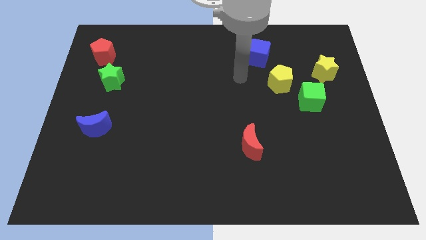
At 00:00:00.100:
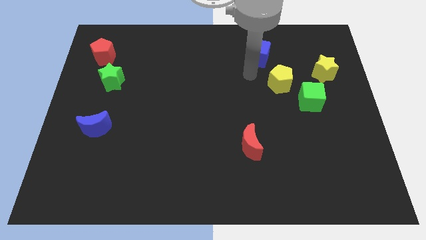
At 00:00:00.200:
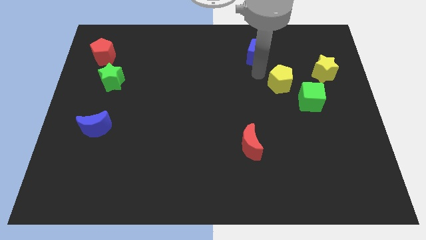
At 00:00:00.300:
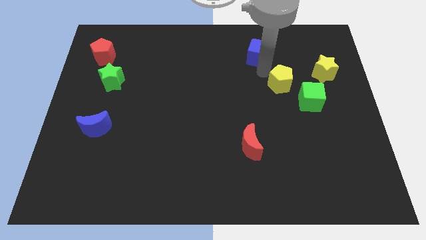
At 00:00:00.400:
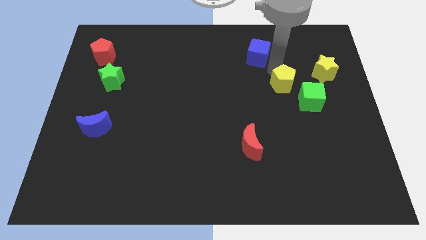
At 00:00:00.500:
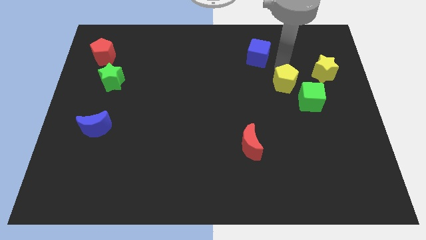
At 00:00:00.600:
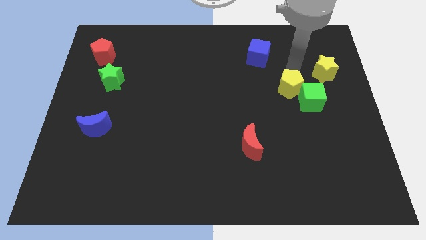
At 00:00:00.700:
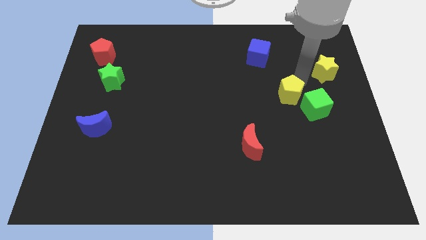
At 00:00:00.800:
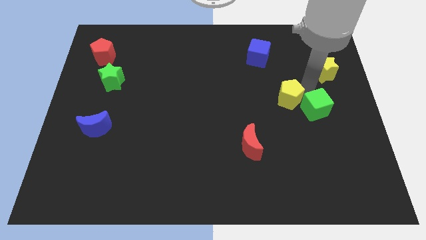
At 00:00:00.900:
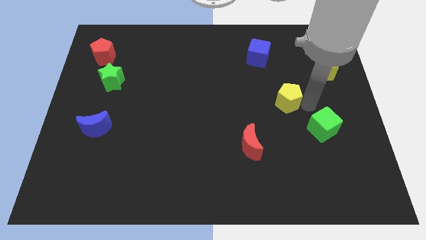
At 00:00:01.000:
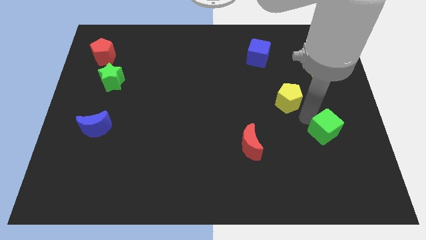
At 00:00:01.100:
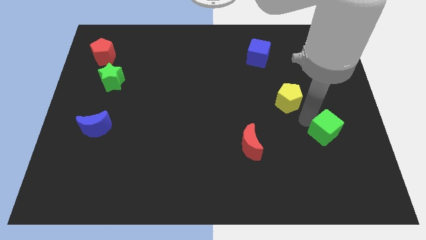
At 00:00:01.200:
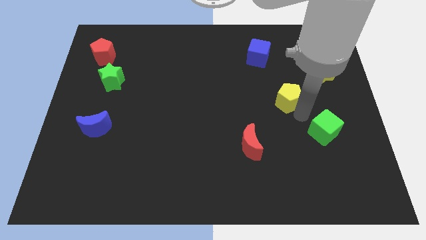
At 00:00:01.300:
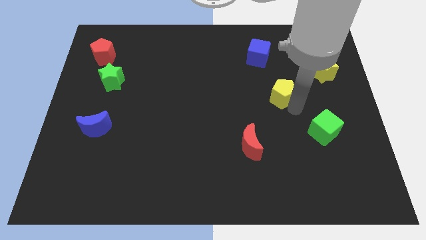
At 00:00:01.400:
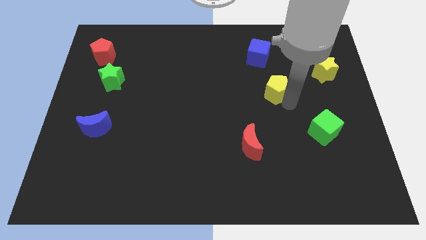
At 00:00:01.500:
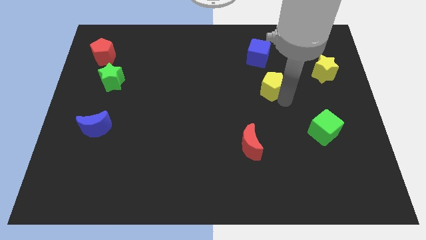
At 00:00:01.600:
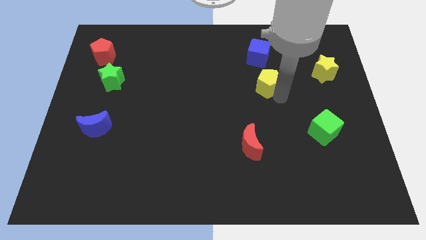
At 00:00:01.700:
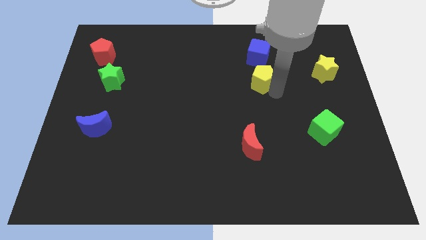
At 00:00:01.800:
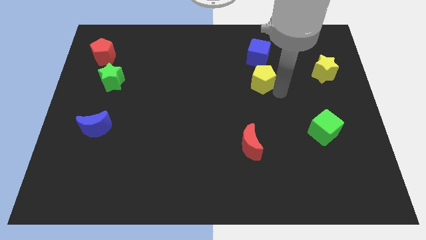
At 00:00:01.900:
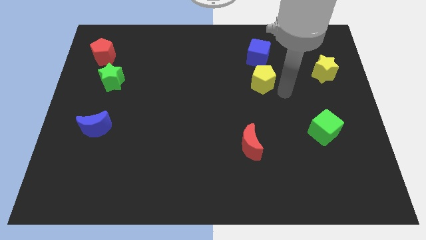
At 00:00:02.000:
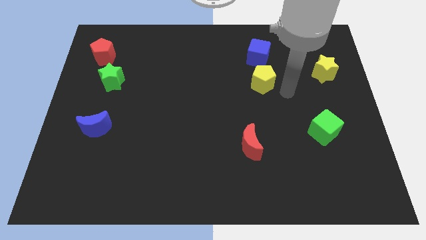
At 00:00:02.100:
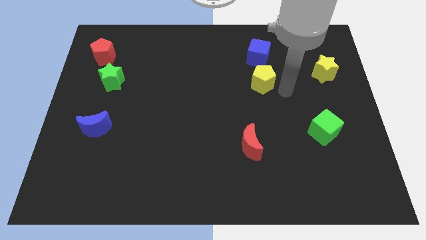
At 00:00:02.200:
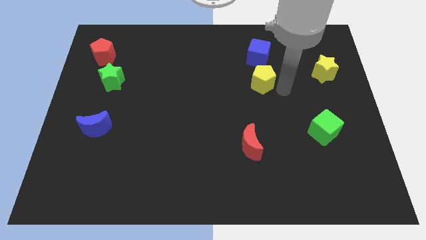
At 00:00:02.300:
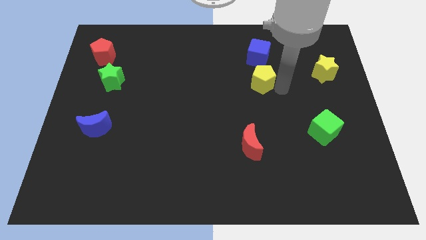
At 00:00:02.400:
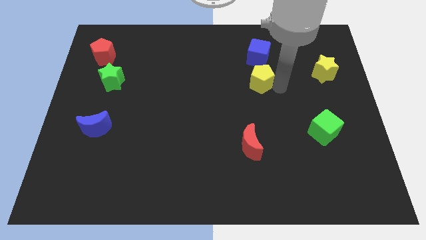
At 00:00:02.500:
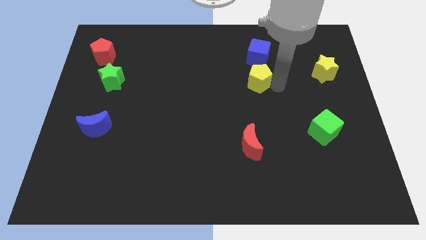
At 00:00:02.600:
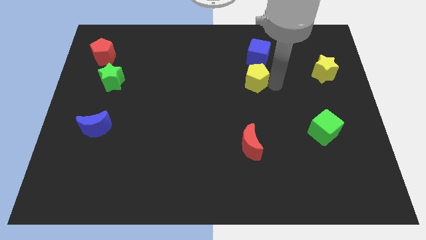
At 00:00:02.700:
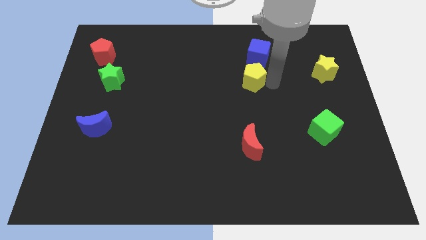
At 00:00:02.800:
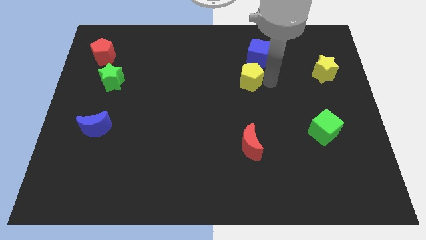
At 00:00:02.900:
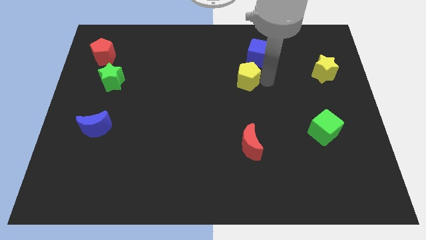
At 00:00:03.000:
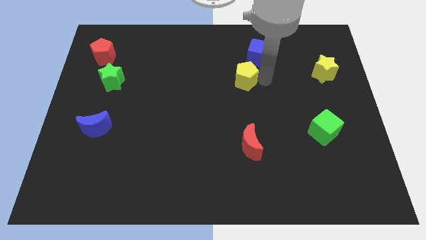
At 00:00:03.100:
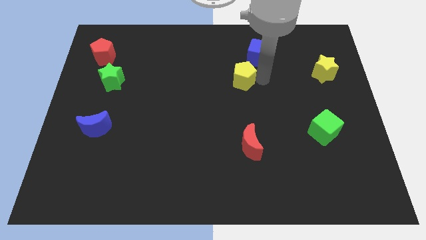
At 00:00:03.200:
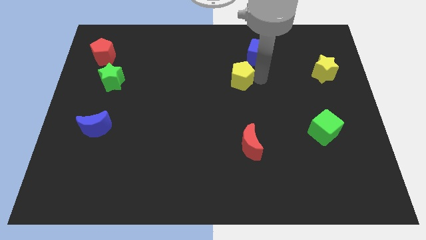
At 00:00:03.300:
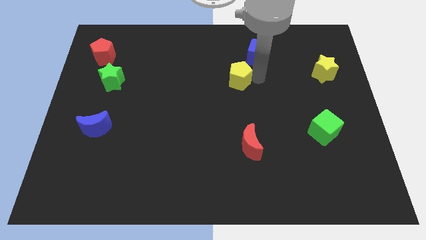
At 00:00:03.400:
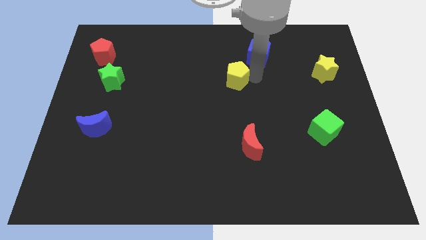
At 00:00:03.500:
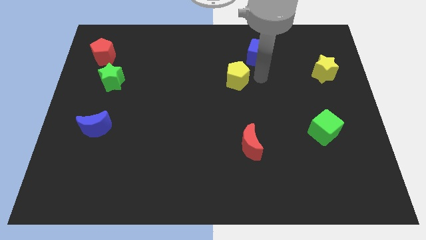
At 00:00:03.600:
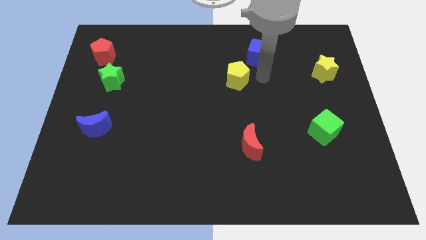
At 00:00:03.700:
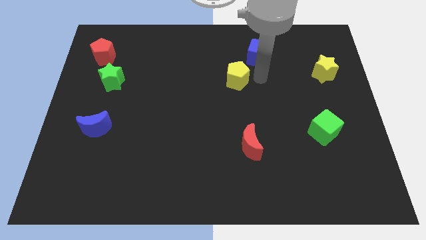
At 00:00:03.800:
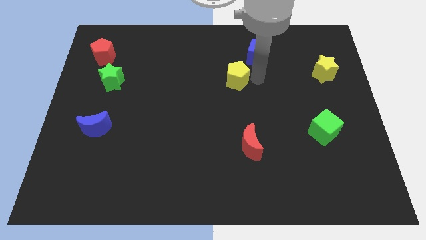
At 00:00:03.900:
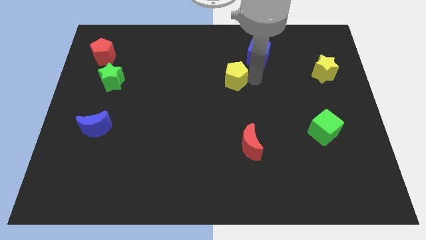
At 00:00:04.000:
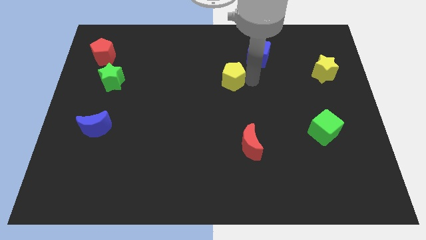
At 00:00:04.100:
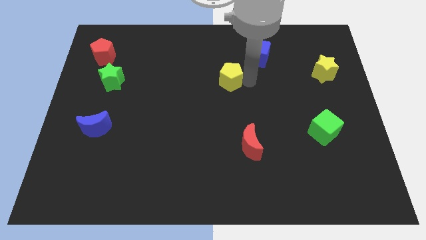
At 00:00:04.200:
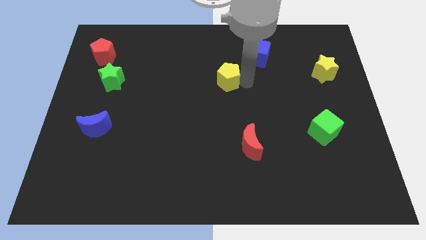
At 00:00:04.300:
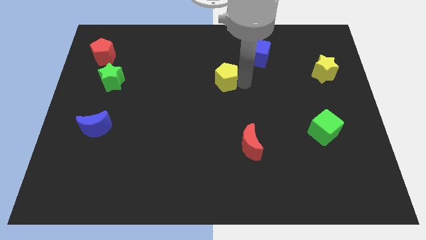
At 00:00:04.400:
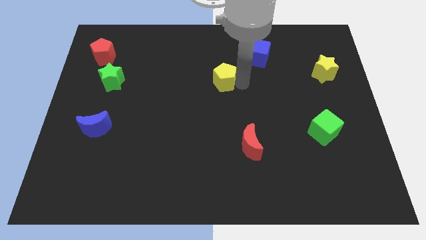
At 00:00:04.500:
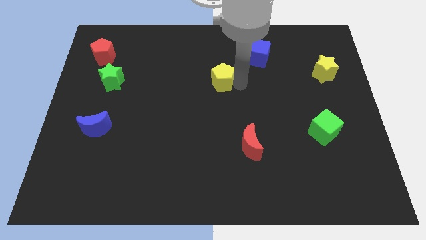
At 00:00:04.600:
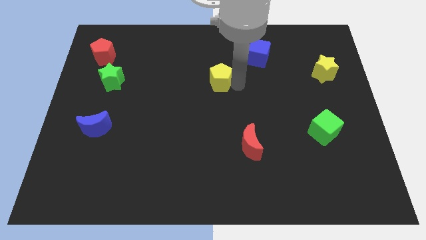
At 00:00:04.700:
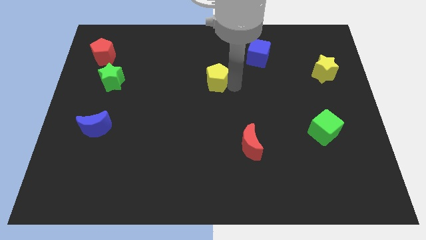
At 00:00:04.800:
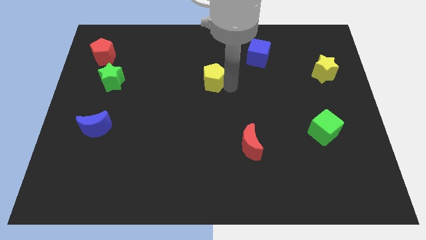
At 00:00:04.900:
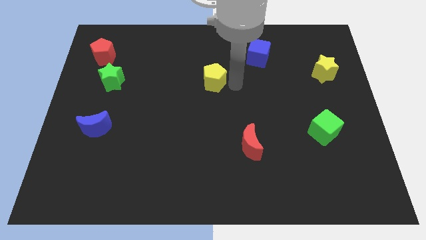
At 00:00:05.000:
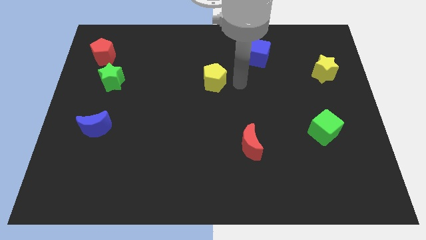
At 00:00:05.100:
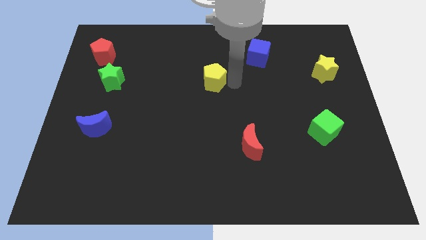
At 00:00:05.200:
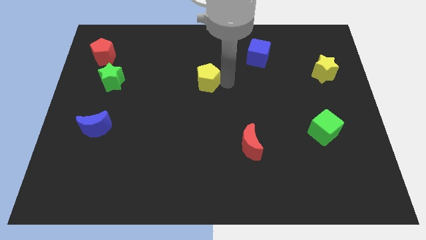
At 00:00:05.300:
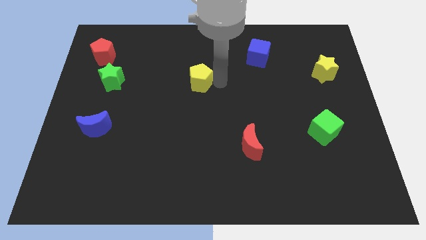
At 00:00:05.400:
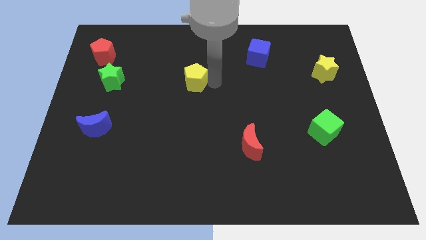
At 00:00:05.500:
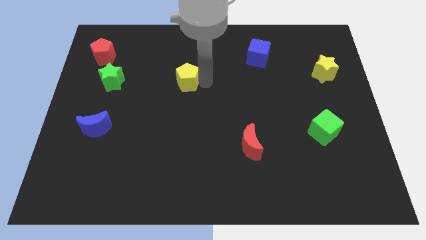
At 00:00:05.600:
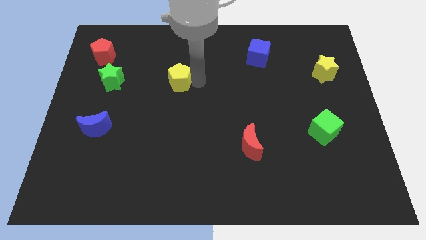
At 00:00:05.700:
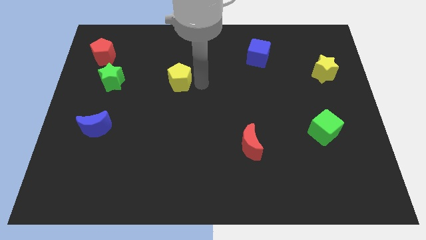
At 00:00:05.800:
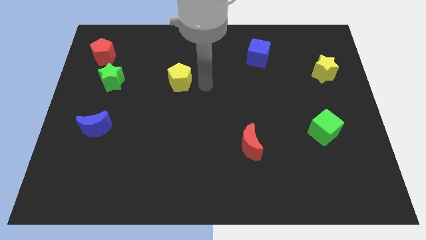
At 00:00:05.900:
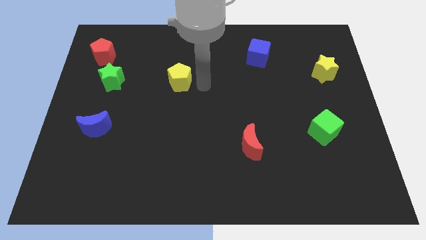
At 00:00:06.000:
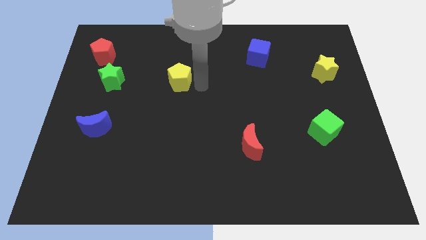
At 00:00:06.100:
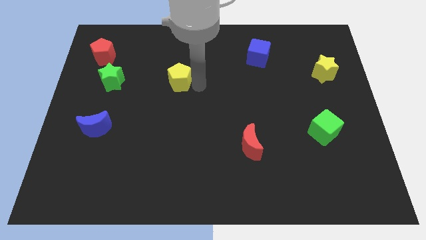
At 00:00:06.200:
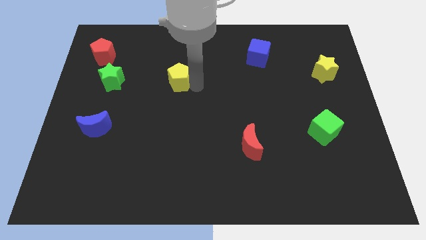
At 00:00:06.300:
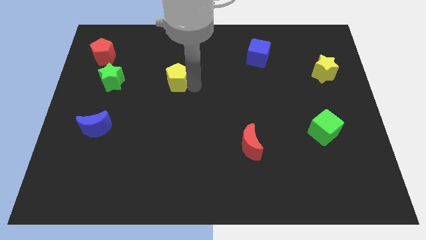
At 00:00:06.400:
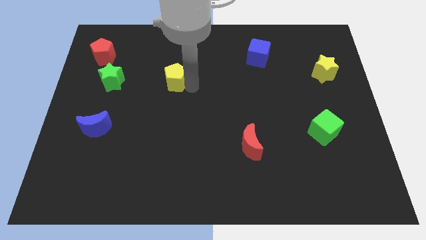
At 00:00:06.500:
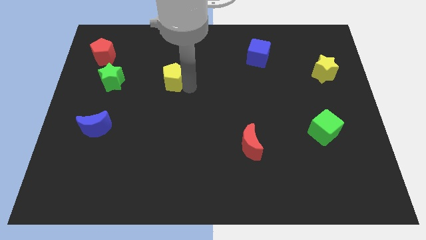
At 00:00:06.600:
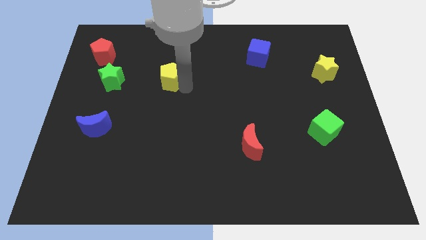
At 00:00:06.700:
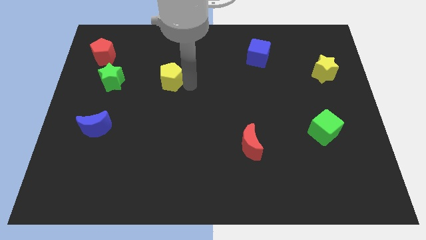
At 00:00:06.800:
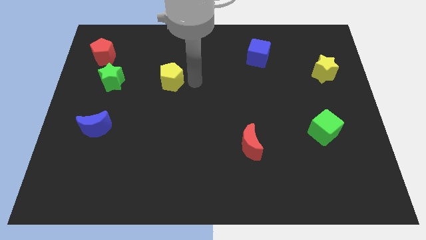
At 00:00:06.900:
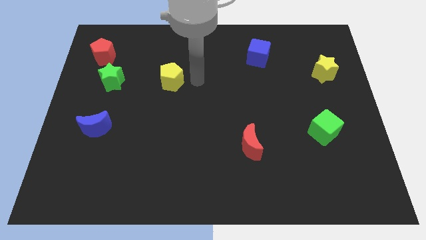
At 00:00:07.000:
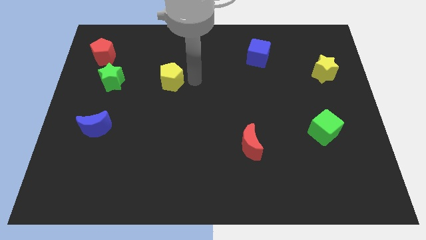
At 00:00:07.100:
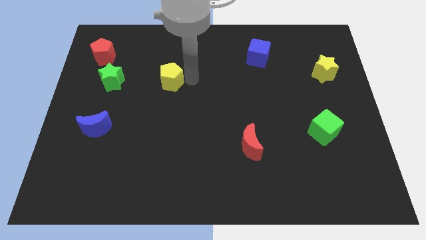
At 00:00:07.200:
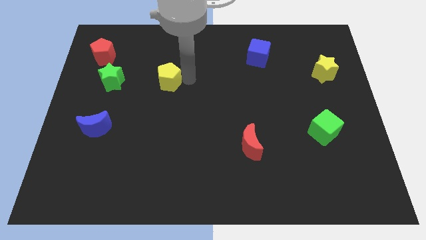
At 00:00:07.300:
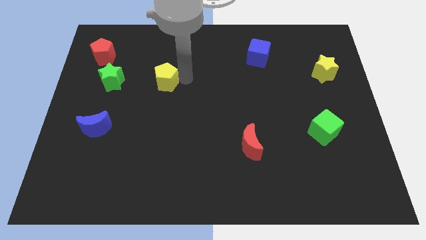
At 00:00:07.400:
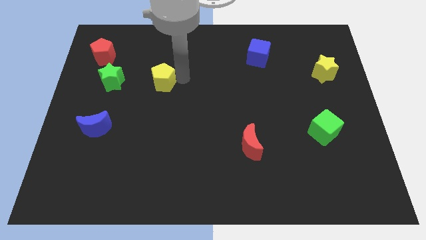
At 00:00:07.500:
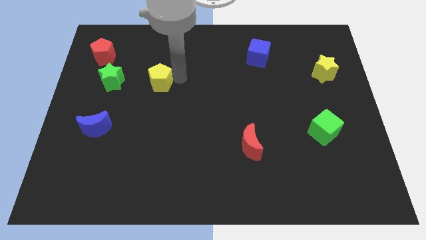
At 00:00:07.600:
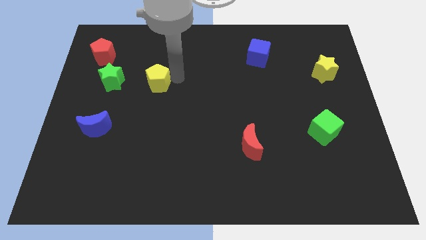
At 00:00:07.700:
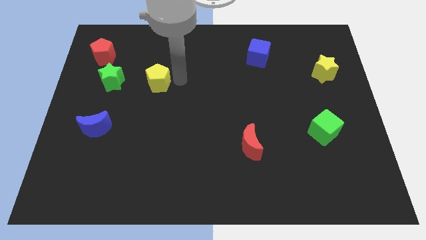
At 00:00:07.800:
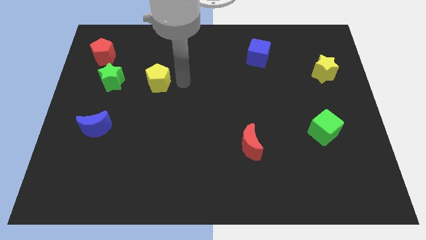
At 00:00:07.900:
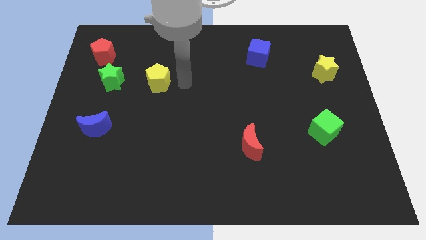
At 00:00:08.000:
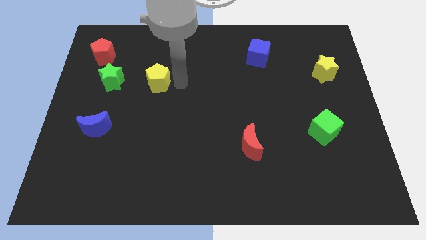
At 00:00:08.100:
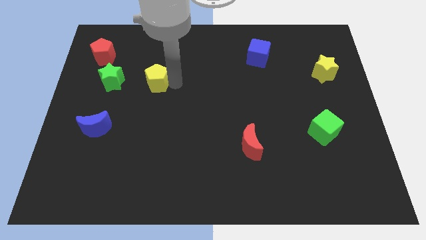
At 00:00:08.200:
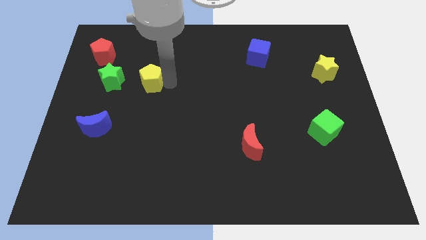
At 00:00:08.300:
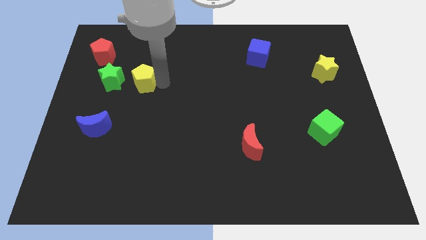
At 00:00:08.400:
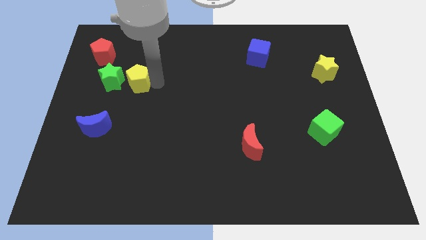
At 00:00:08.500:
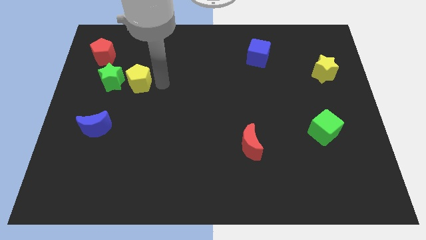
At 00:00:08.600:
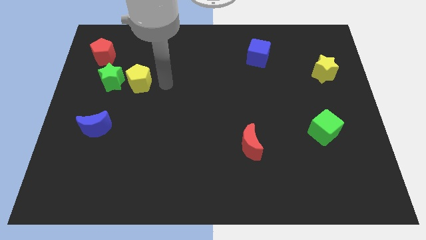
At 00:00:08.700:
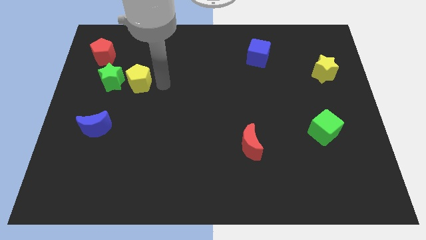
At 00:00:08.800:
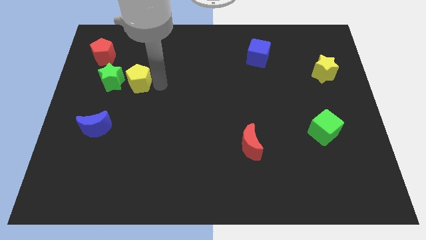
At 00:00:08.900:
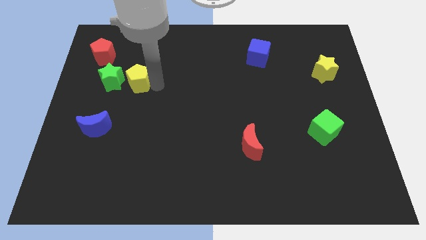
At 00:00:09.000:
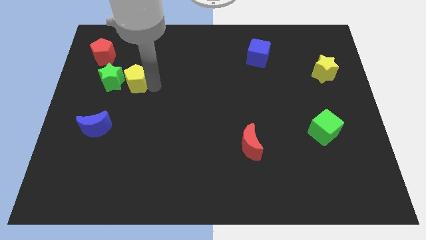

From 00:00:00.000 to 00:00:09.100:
slide the yellow pentagon next to the green star
